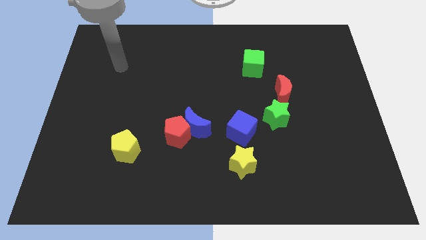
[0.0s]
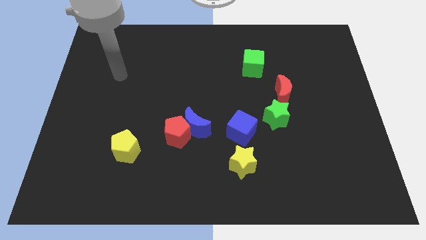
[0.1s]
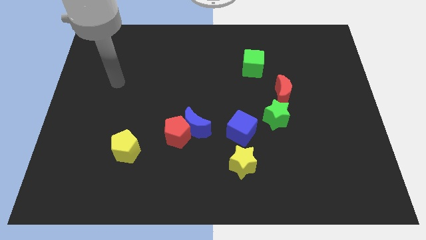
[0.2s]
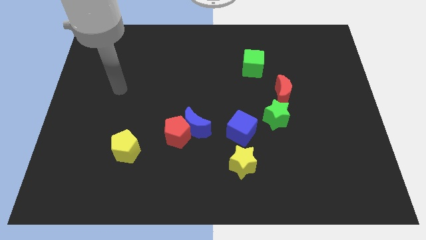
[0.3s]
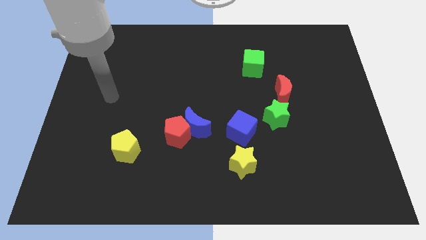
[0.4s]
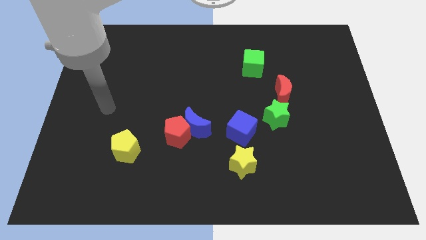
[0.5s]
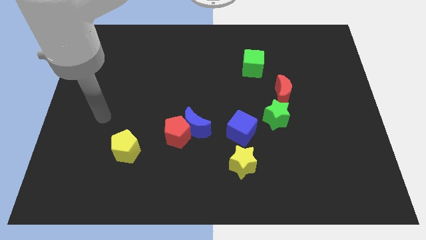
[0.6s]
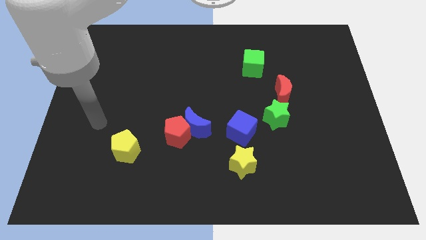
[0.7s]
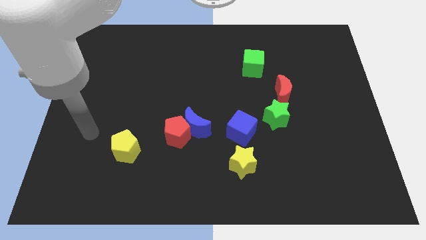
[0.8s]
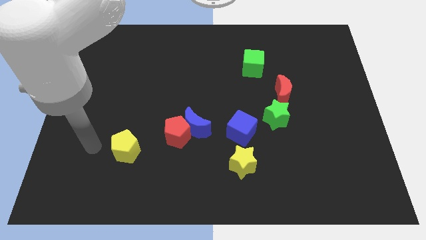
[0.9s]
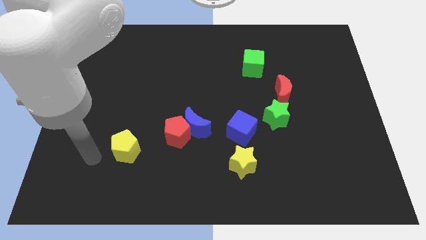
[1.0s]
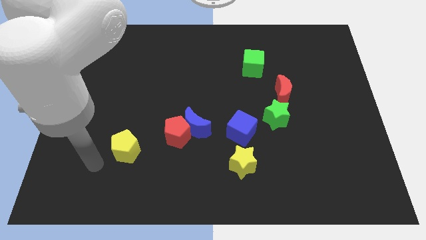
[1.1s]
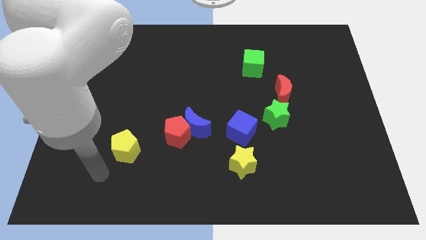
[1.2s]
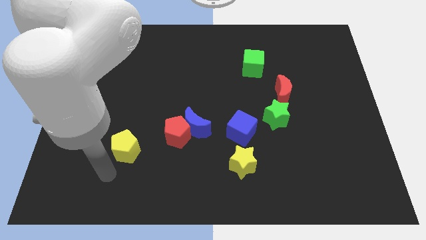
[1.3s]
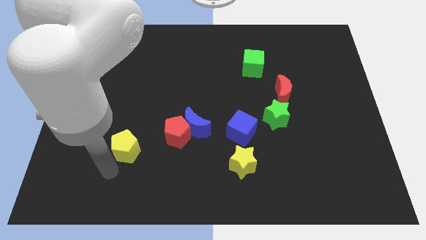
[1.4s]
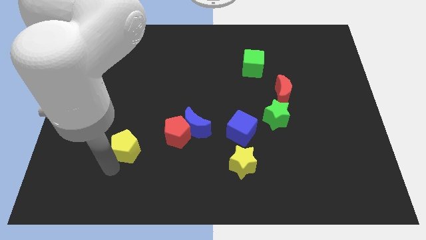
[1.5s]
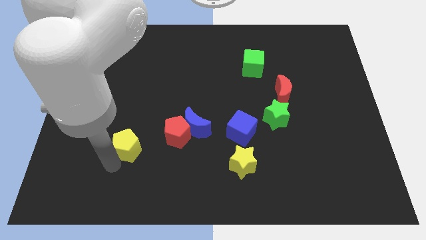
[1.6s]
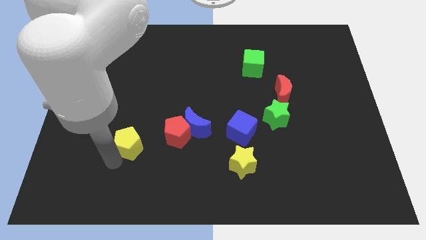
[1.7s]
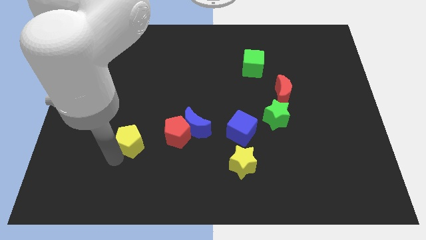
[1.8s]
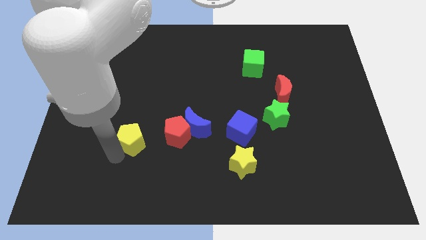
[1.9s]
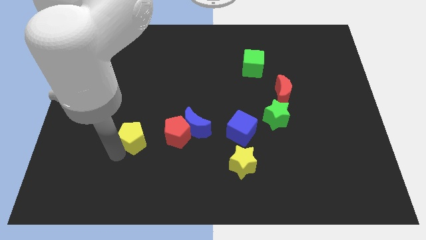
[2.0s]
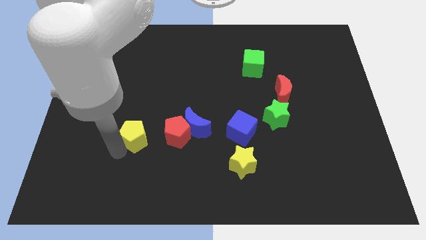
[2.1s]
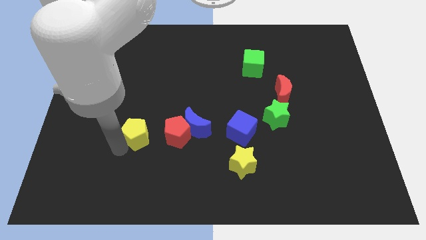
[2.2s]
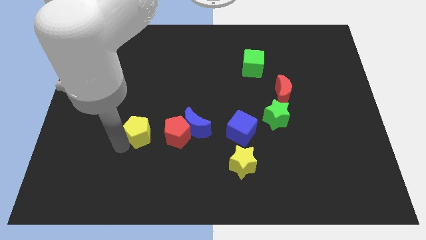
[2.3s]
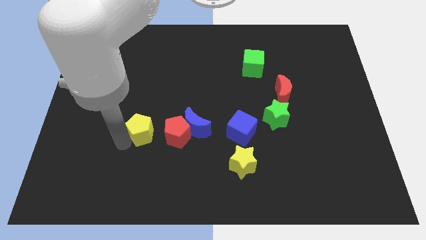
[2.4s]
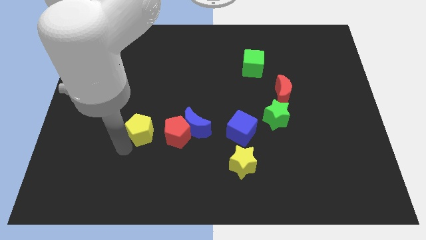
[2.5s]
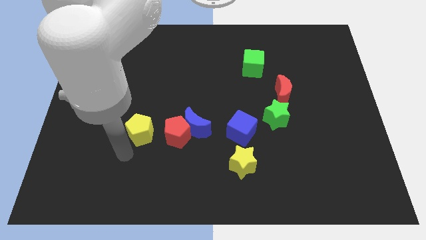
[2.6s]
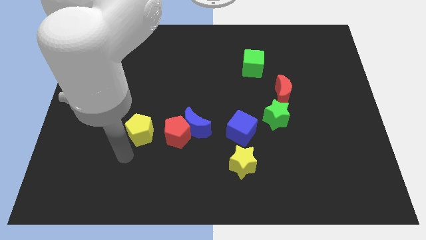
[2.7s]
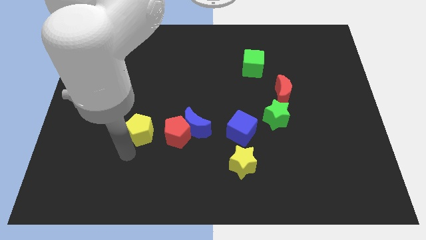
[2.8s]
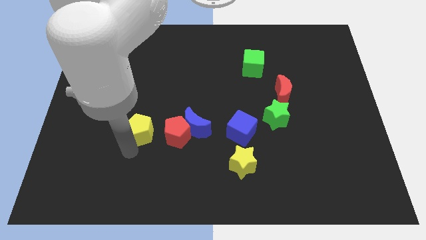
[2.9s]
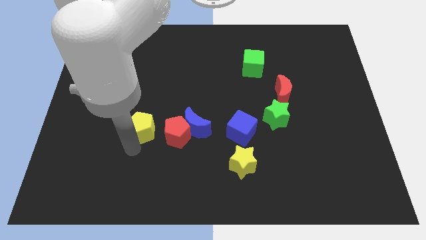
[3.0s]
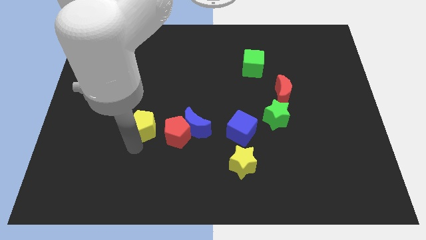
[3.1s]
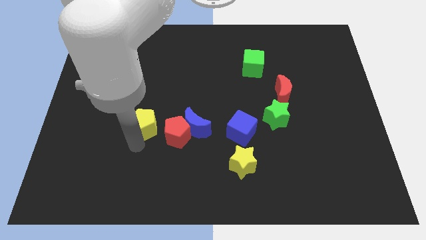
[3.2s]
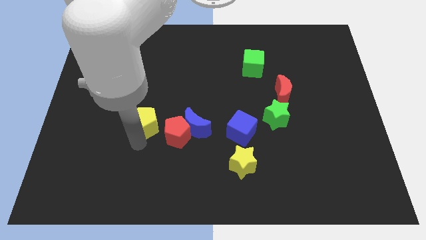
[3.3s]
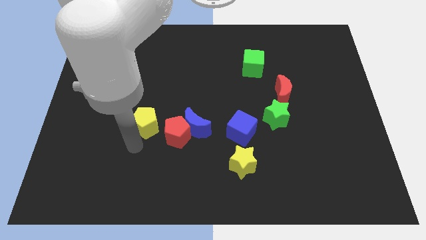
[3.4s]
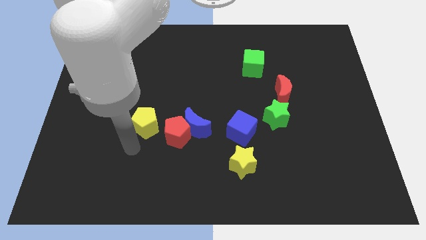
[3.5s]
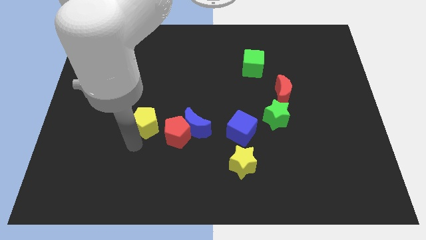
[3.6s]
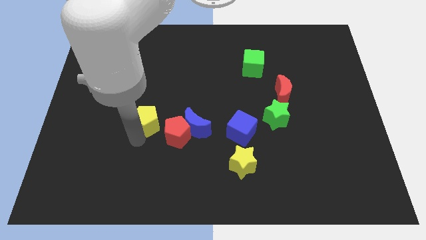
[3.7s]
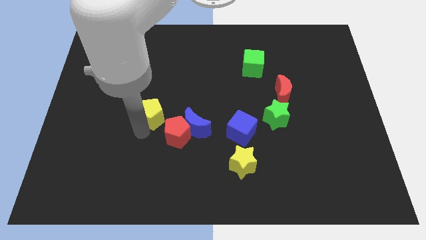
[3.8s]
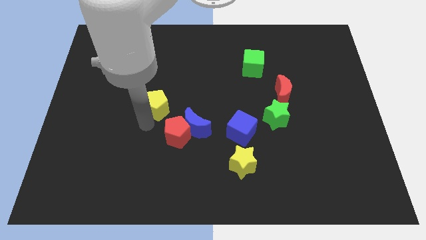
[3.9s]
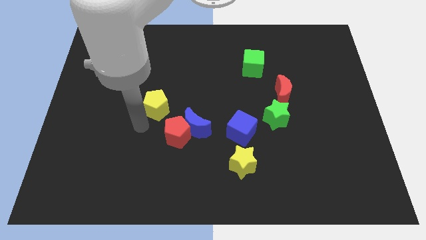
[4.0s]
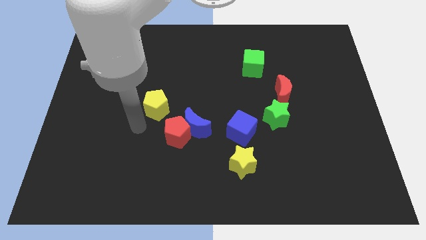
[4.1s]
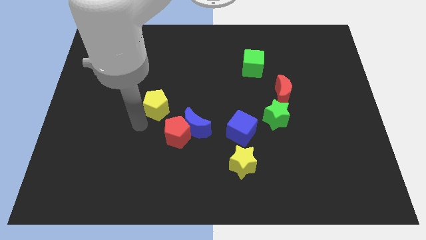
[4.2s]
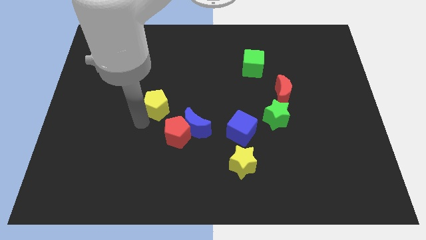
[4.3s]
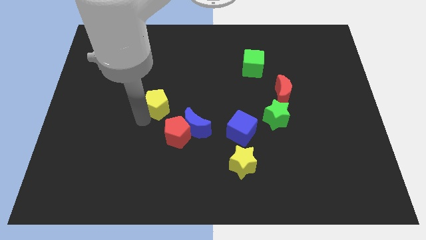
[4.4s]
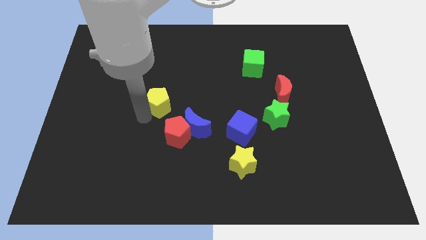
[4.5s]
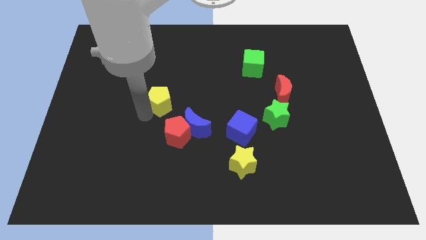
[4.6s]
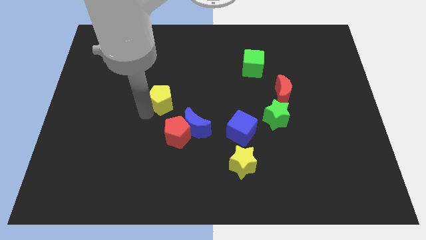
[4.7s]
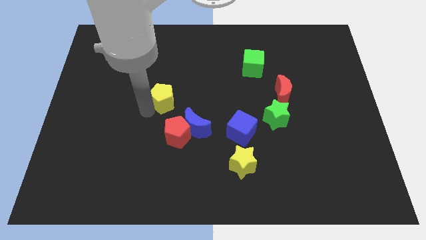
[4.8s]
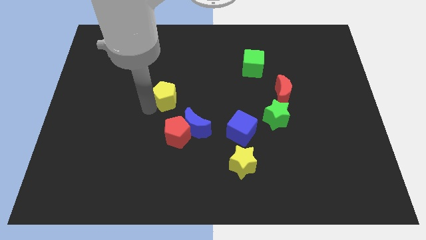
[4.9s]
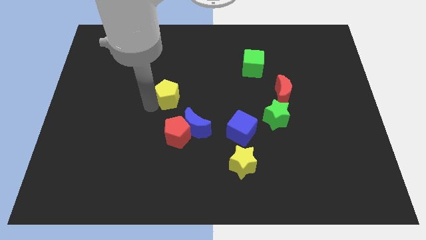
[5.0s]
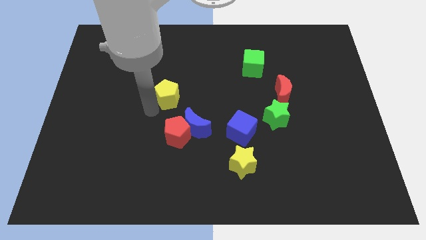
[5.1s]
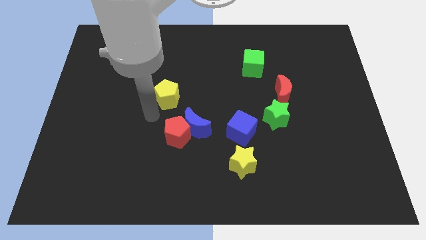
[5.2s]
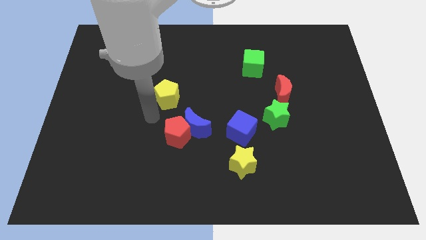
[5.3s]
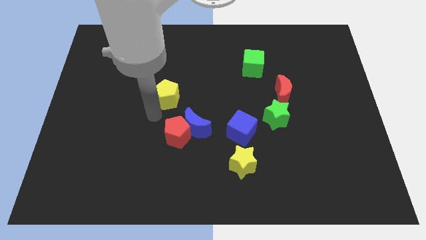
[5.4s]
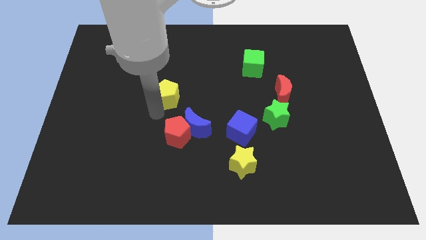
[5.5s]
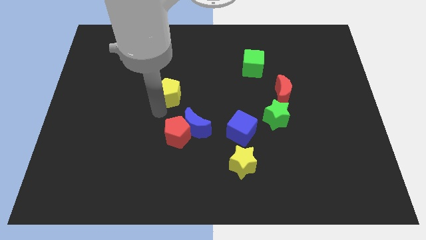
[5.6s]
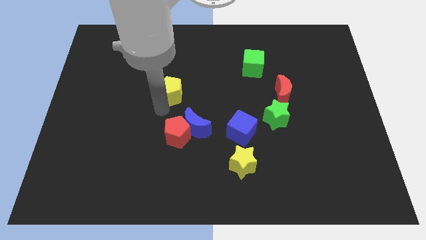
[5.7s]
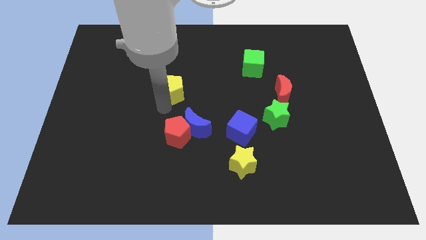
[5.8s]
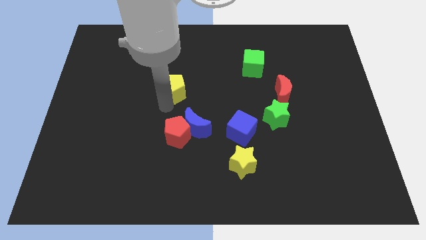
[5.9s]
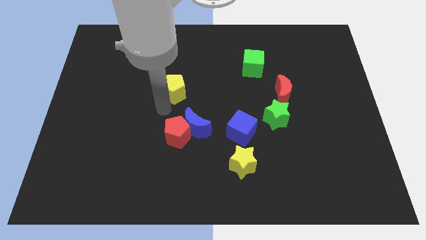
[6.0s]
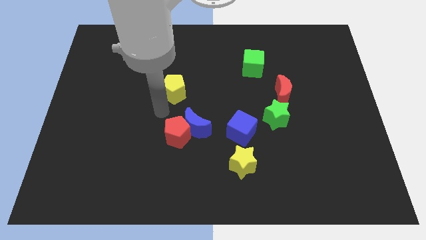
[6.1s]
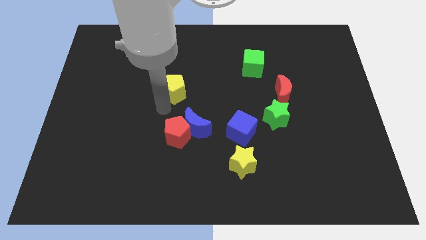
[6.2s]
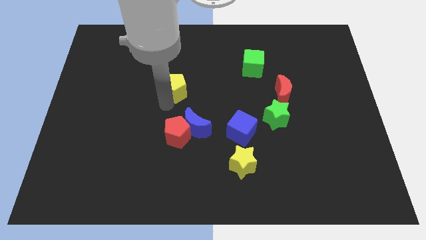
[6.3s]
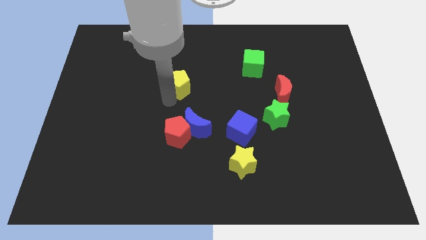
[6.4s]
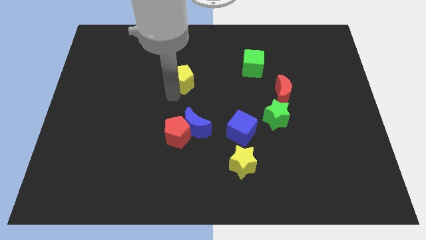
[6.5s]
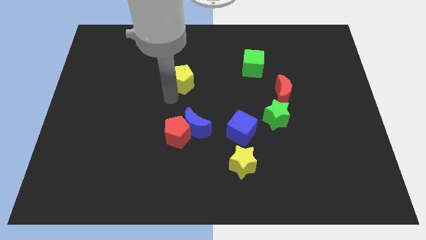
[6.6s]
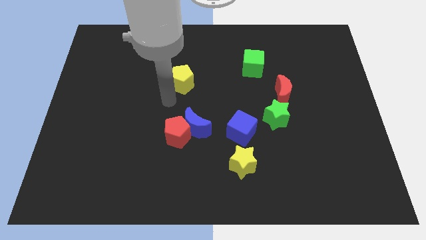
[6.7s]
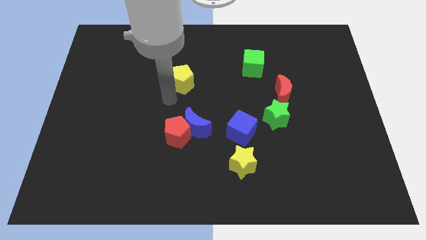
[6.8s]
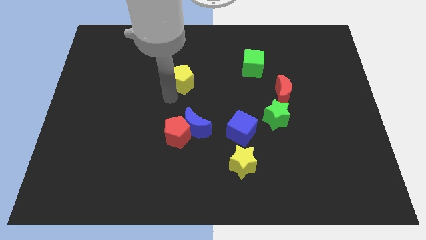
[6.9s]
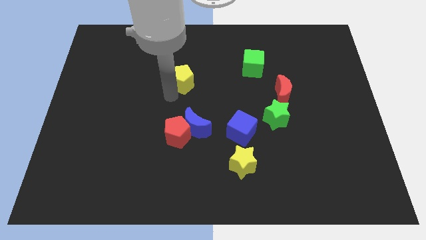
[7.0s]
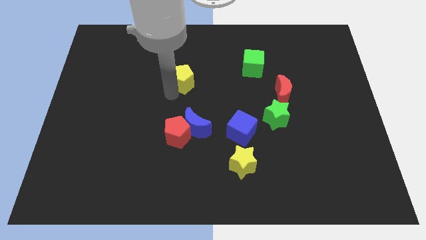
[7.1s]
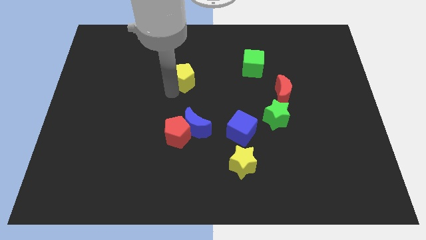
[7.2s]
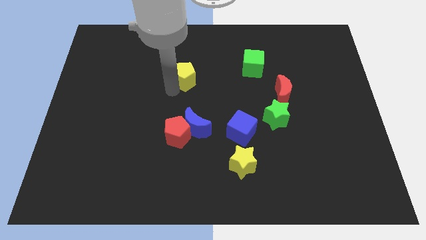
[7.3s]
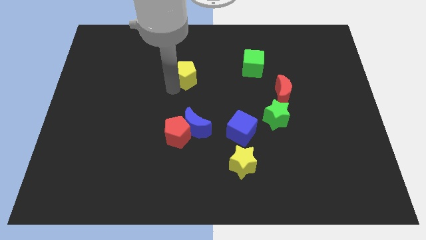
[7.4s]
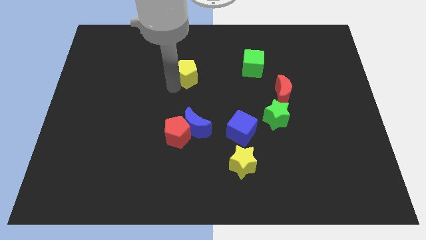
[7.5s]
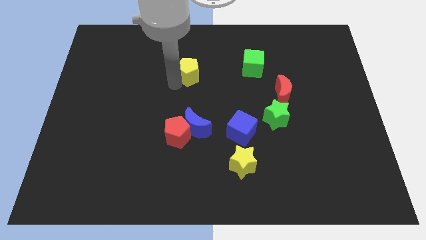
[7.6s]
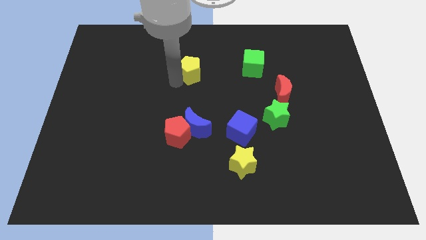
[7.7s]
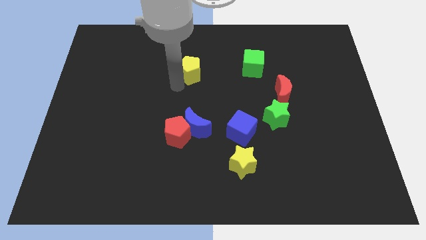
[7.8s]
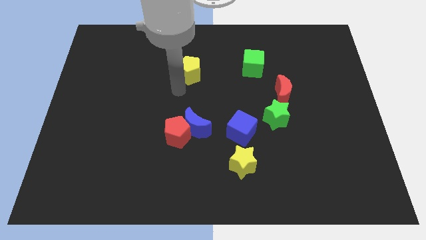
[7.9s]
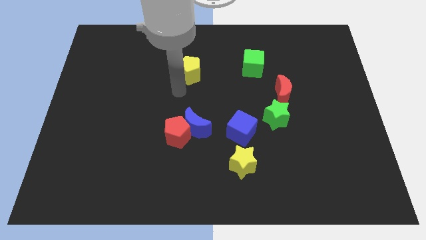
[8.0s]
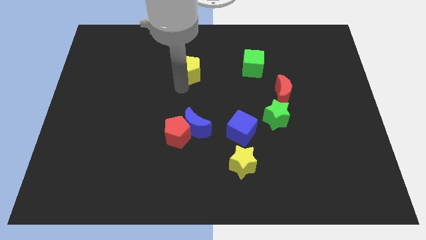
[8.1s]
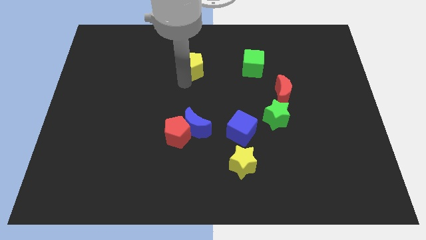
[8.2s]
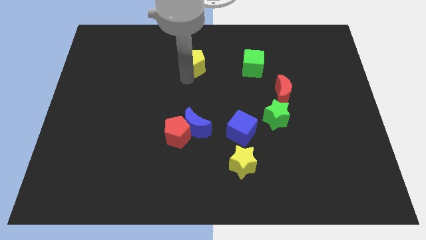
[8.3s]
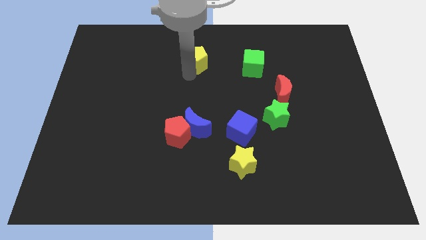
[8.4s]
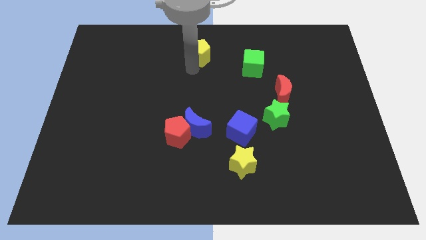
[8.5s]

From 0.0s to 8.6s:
move the yellow pentagon to the towards your base
